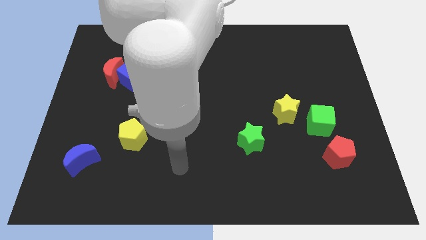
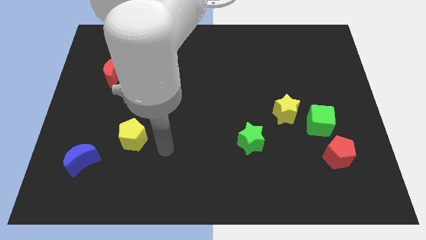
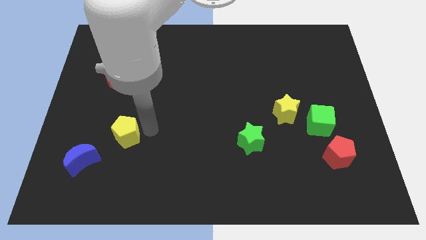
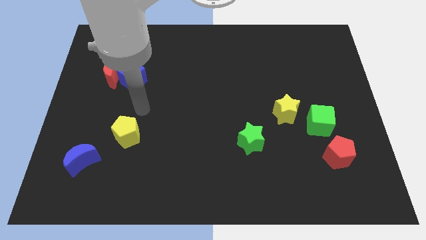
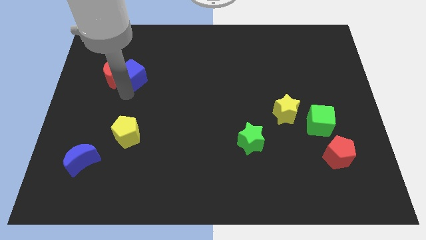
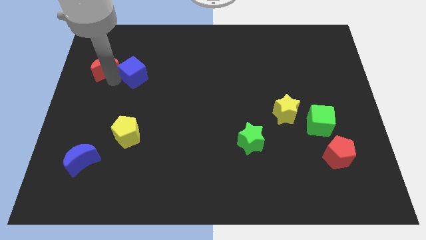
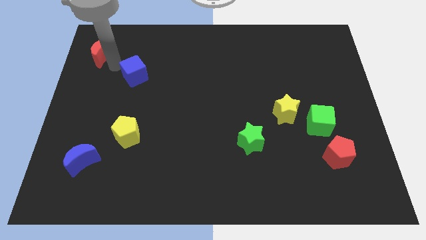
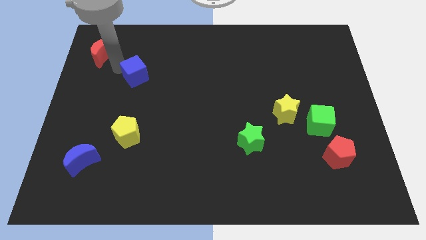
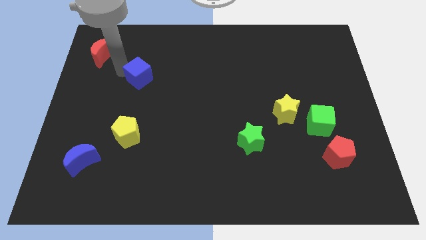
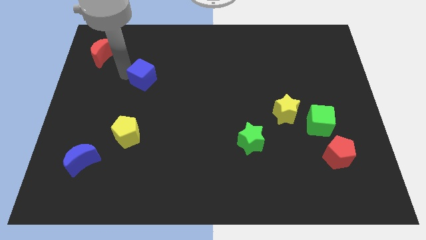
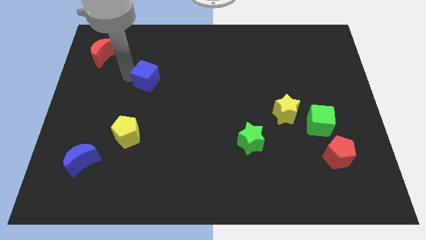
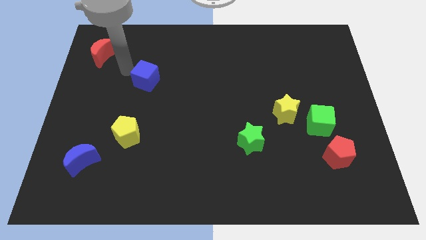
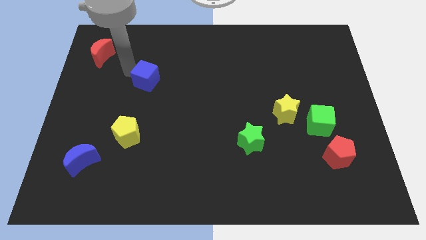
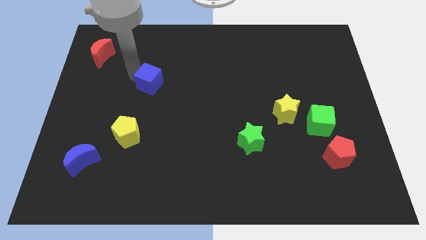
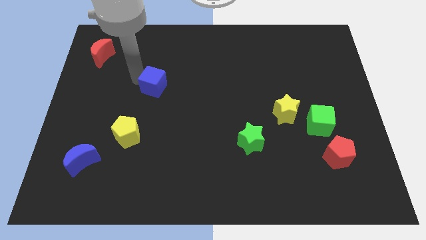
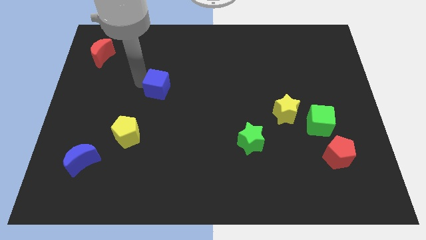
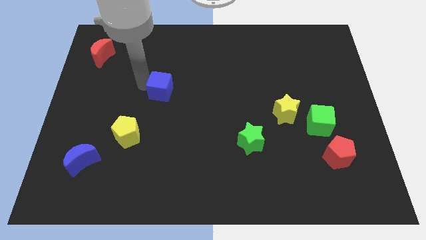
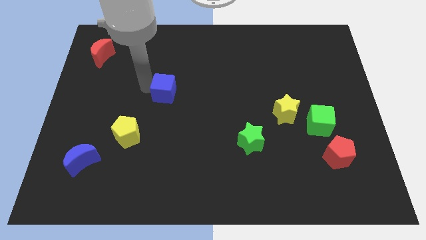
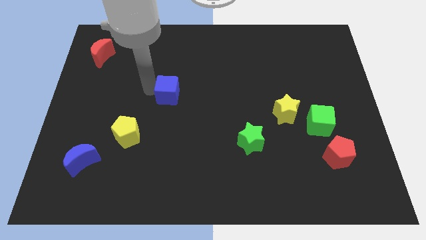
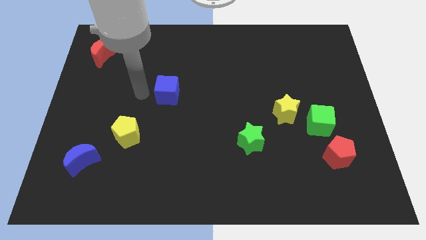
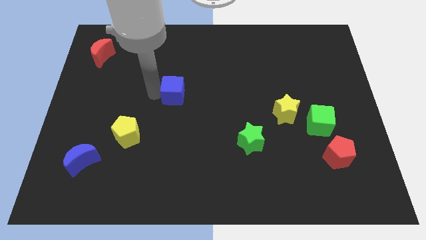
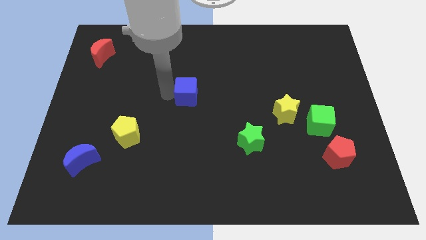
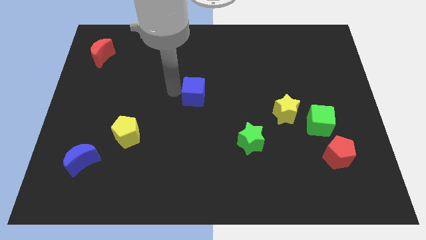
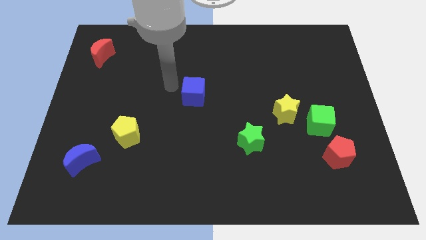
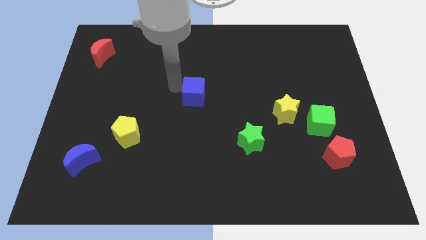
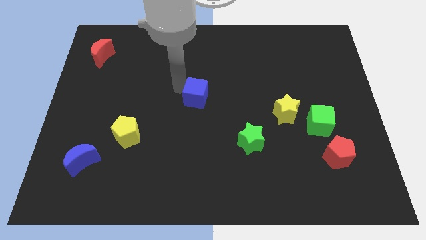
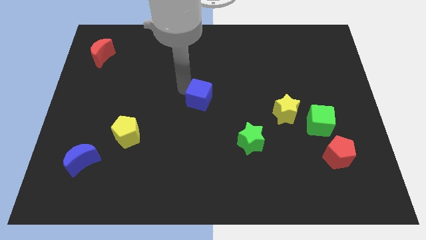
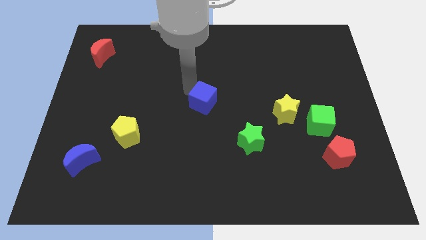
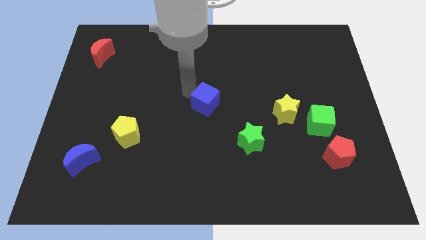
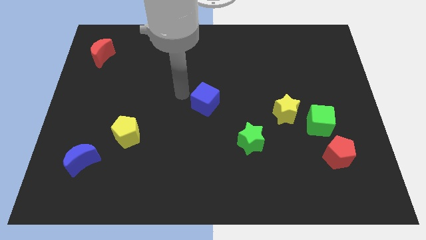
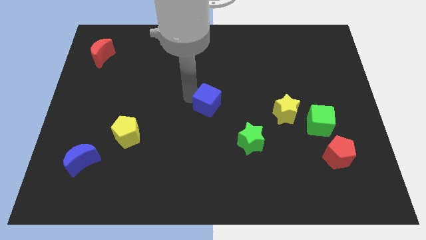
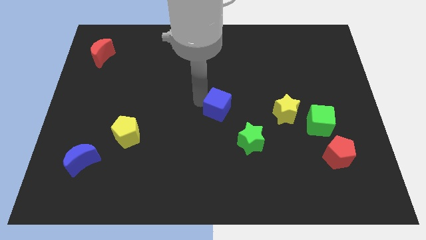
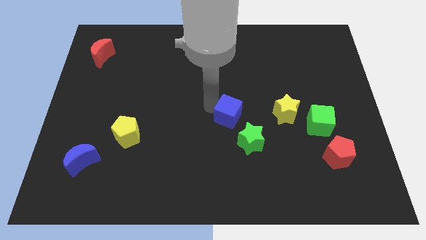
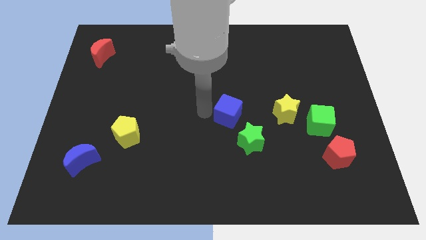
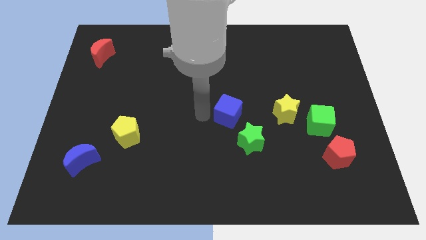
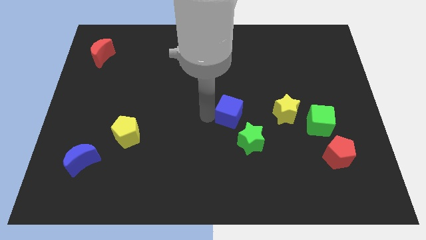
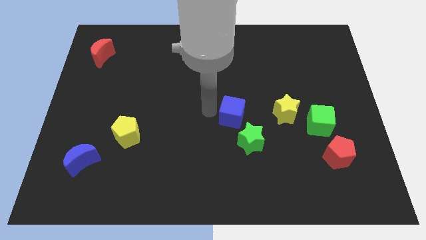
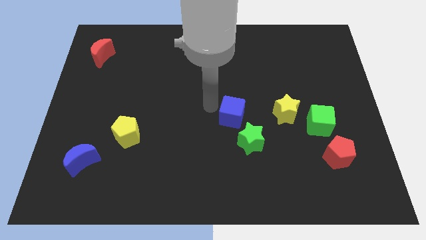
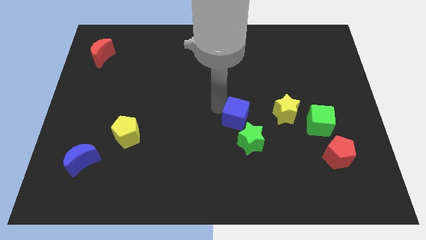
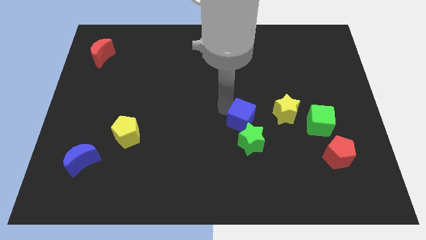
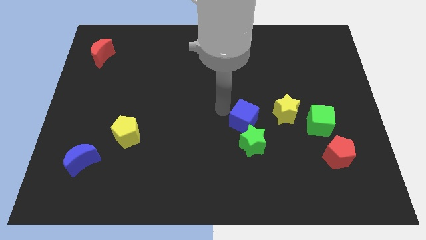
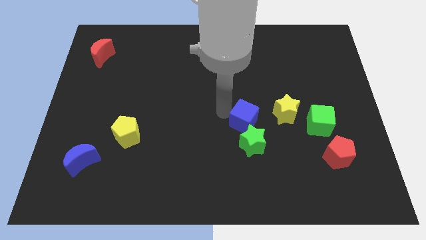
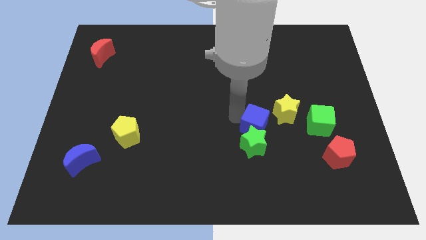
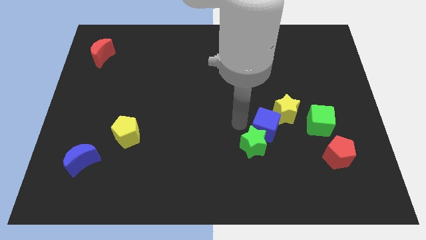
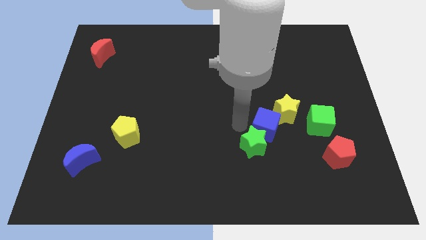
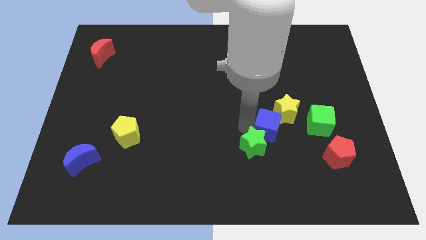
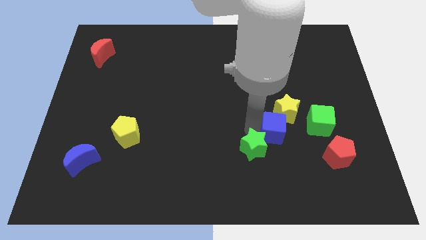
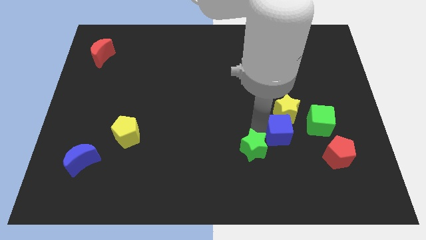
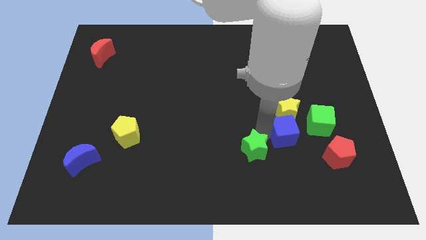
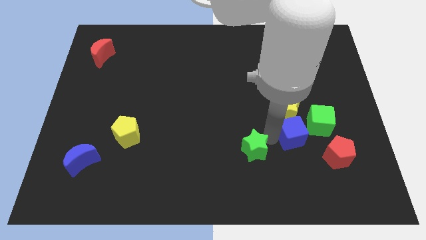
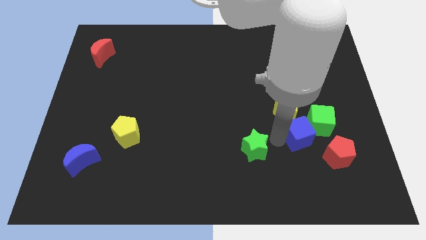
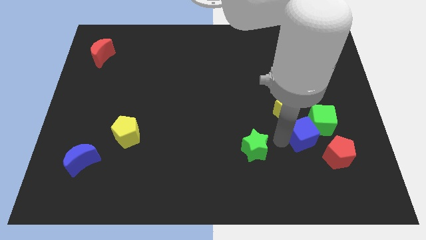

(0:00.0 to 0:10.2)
move the blue cube next to the green cube

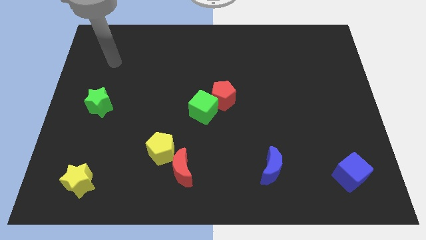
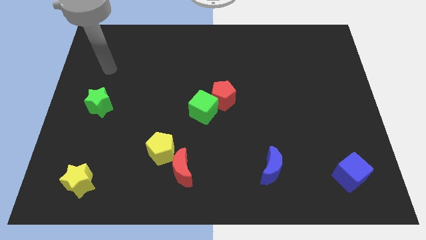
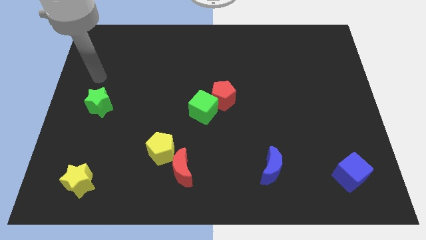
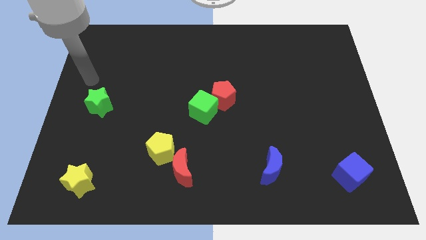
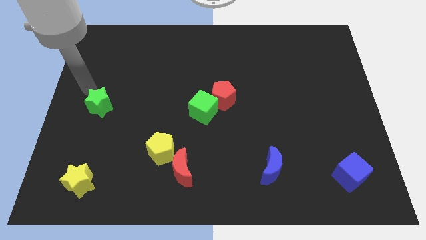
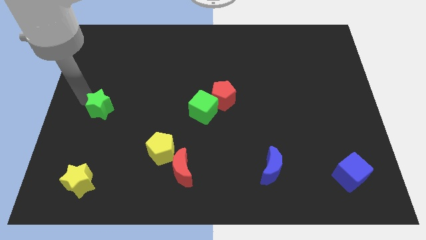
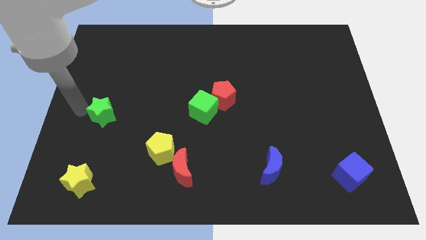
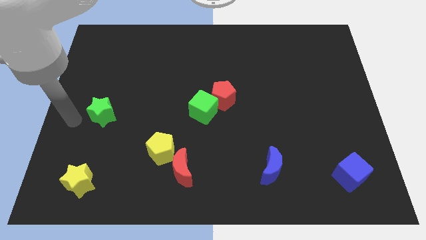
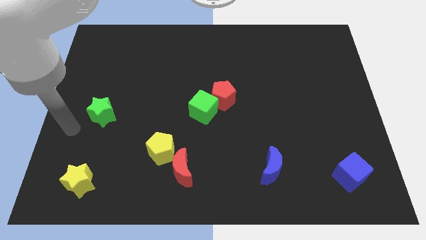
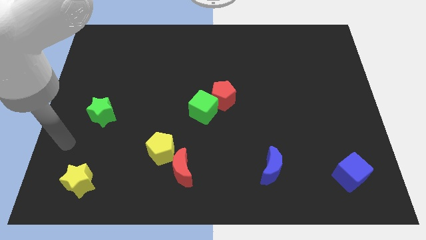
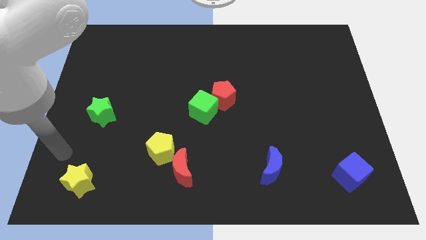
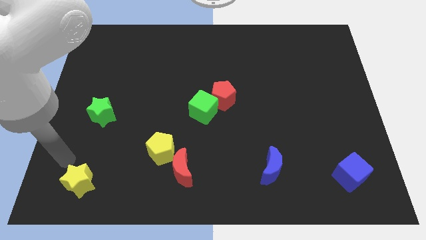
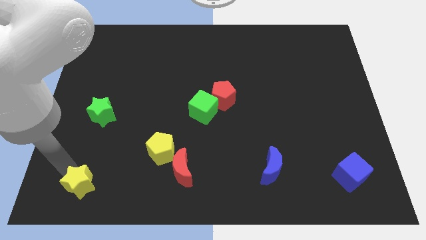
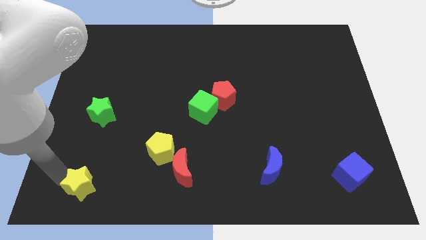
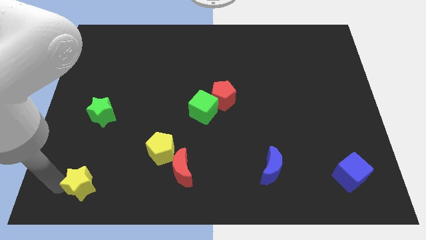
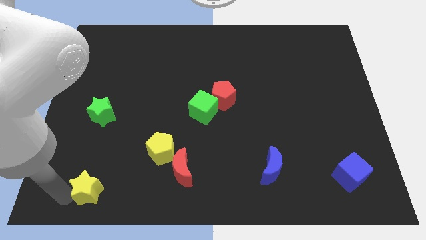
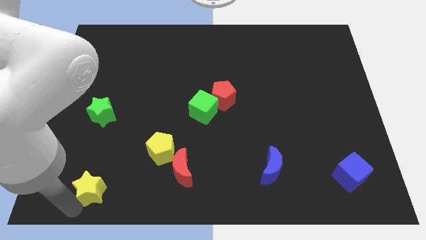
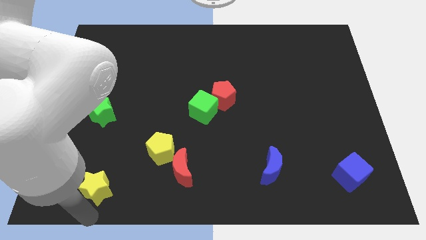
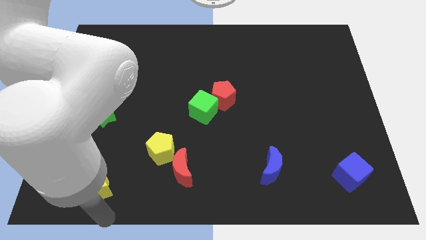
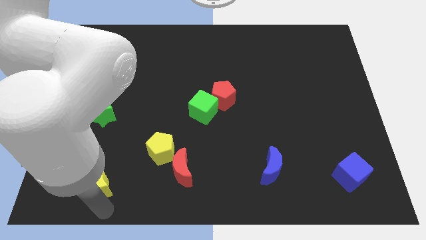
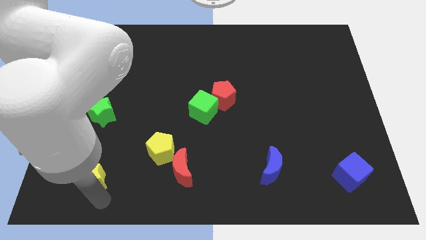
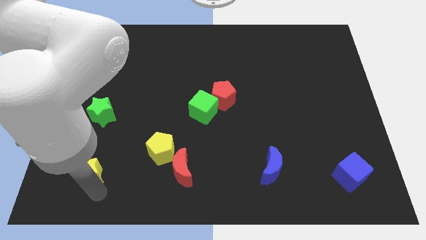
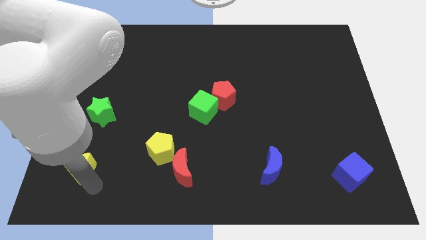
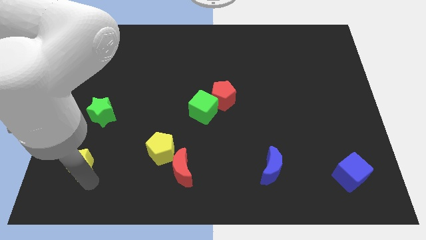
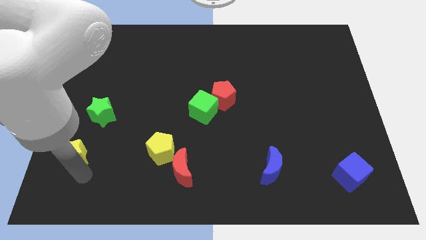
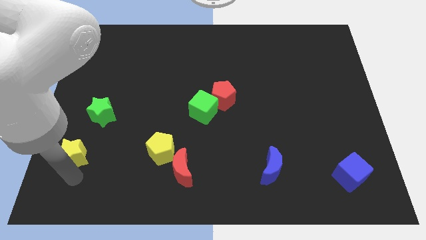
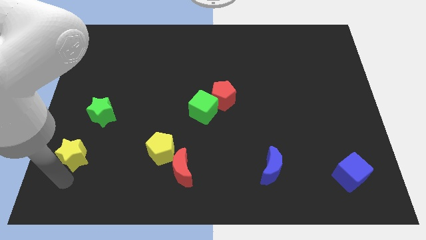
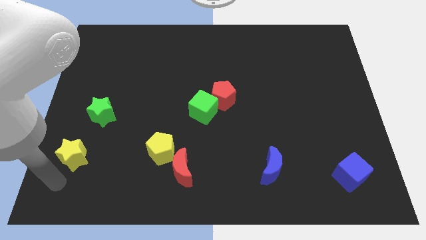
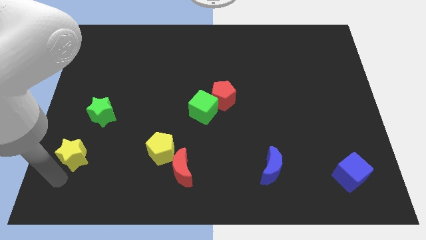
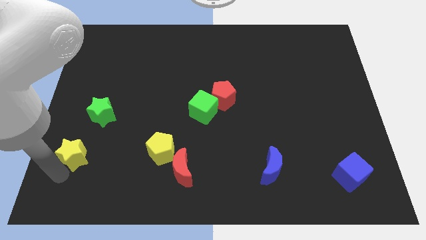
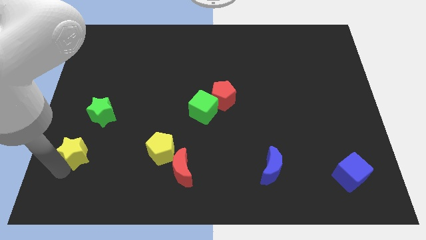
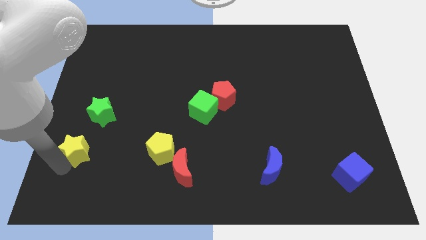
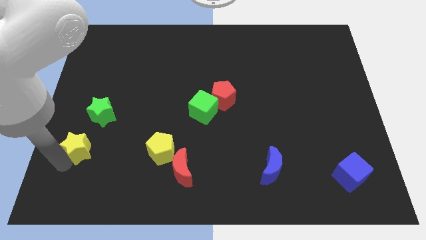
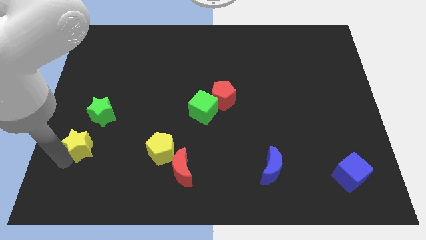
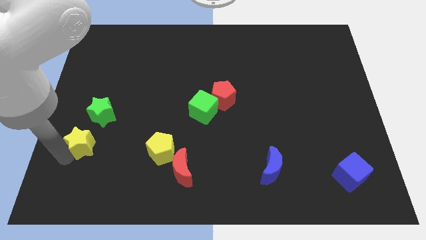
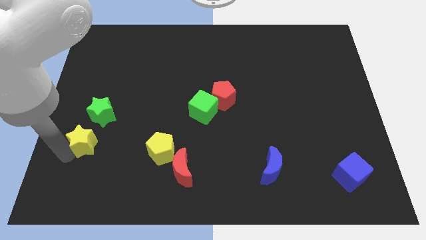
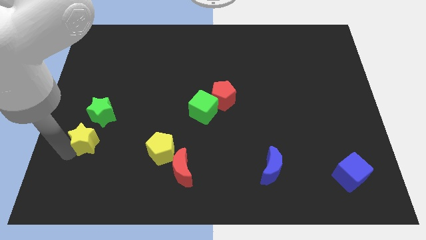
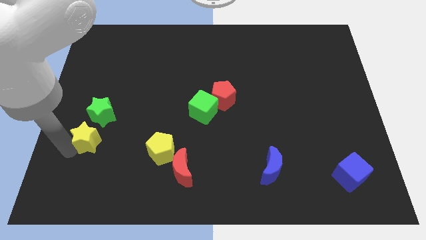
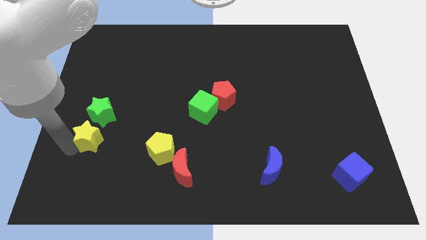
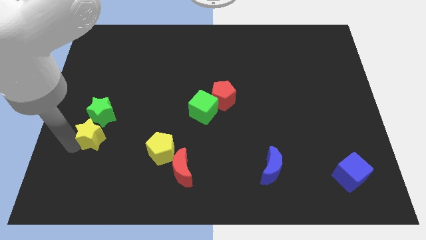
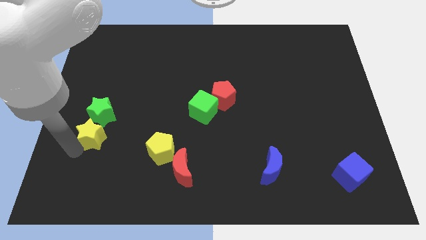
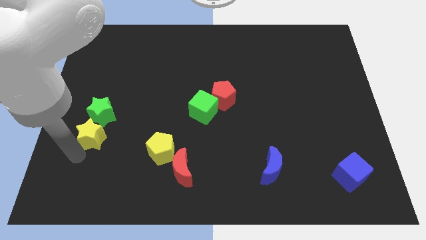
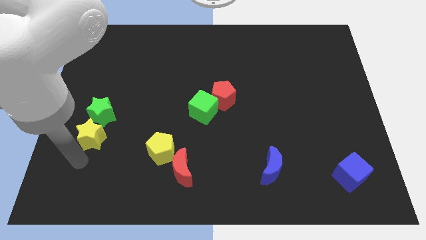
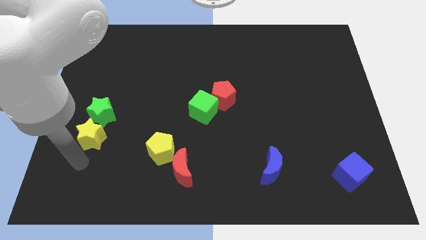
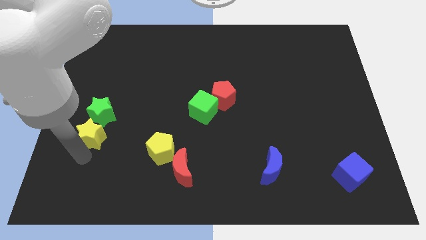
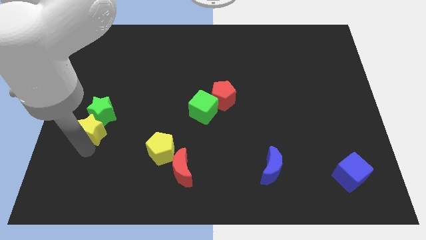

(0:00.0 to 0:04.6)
move the yellow star close to the green star
